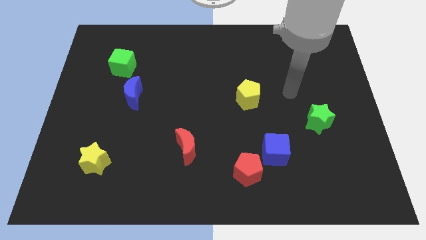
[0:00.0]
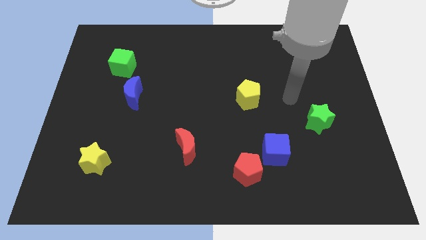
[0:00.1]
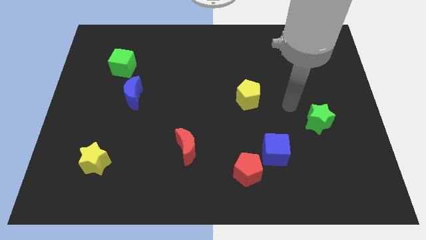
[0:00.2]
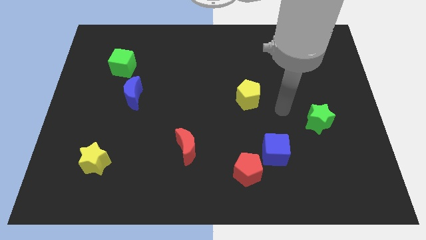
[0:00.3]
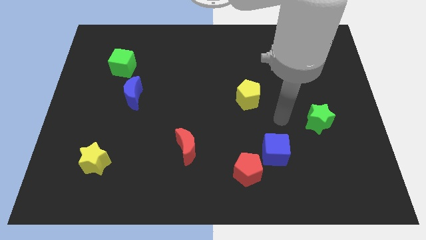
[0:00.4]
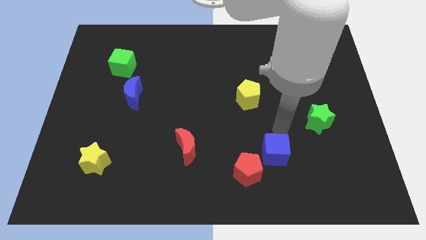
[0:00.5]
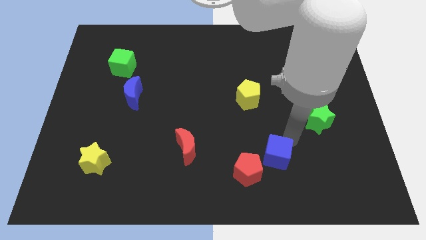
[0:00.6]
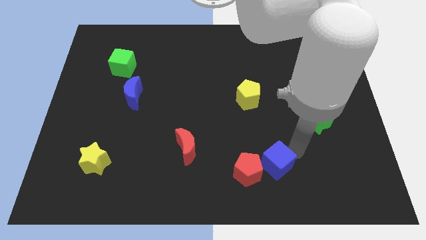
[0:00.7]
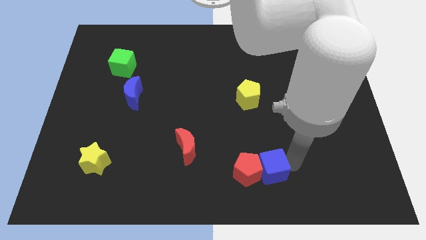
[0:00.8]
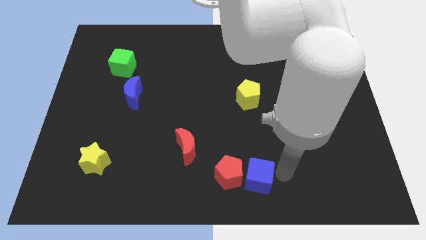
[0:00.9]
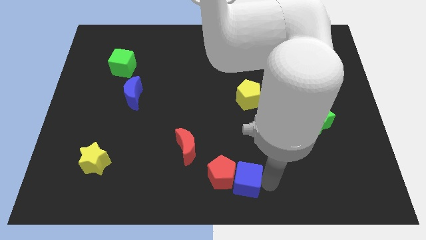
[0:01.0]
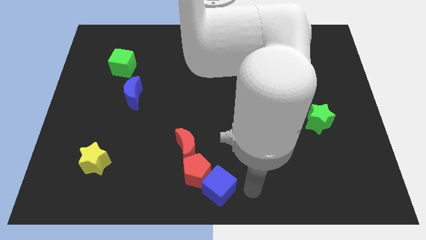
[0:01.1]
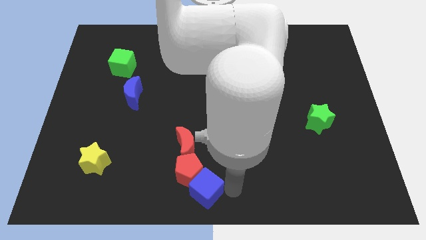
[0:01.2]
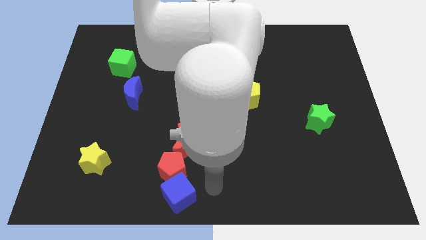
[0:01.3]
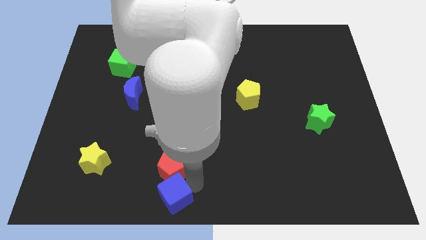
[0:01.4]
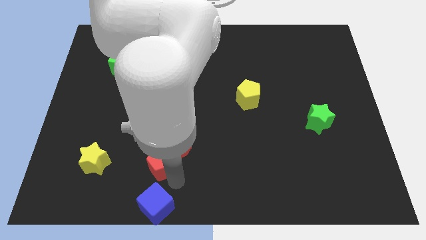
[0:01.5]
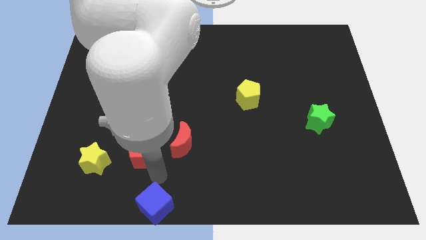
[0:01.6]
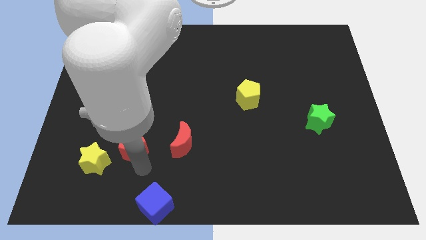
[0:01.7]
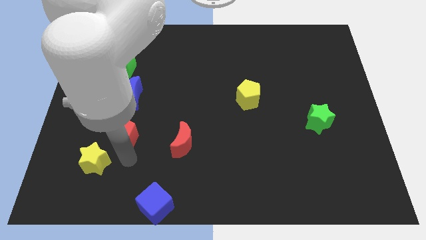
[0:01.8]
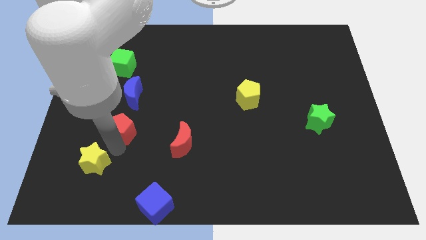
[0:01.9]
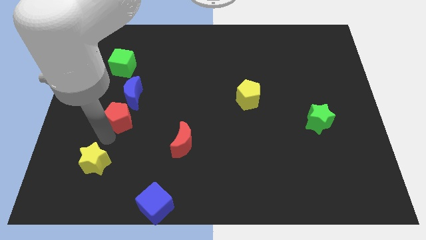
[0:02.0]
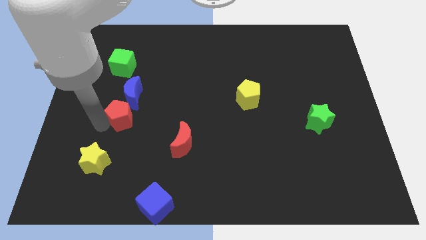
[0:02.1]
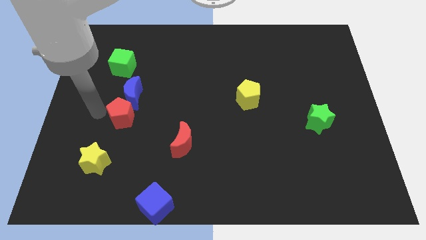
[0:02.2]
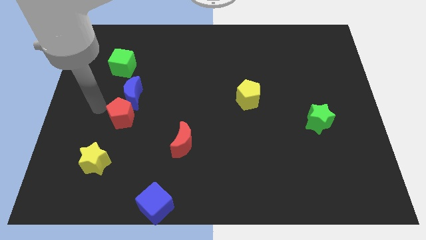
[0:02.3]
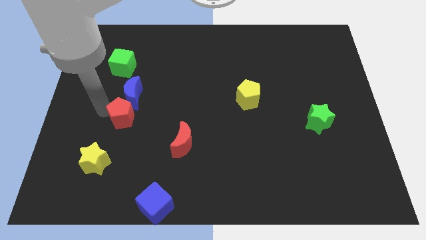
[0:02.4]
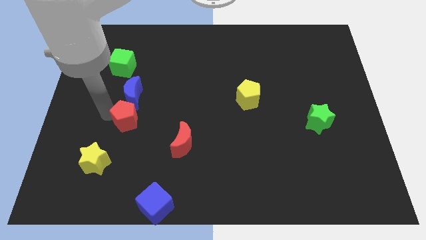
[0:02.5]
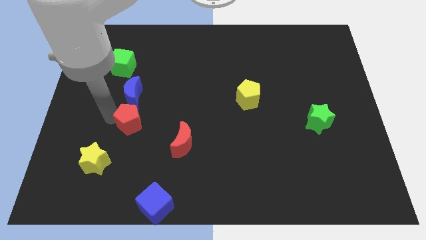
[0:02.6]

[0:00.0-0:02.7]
move the red pentagon slightly upwards and to the left diagonally

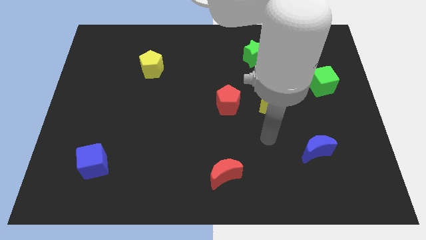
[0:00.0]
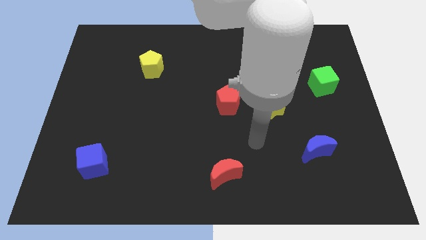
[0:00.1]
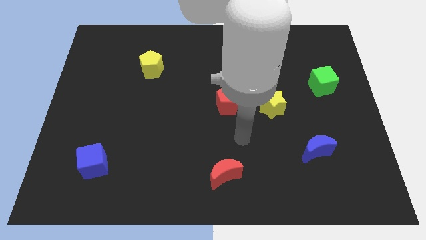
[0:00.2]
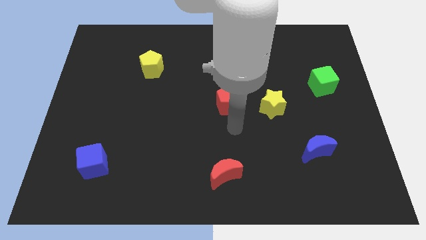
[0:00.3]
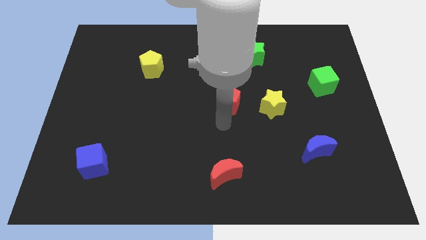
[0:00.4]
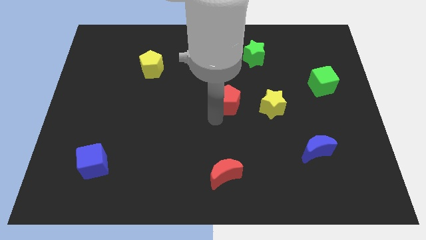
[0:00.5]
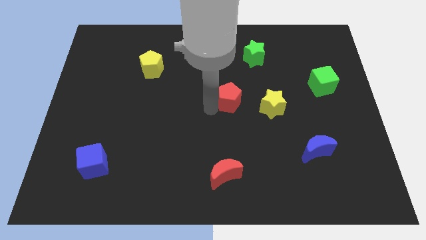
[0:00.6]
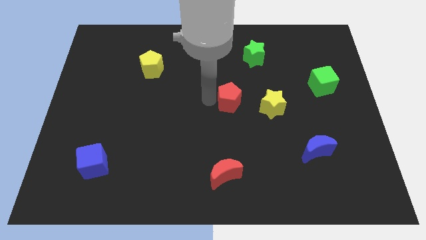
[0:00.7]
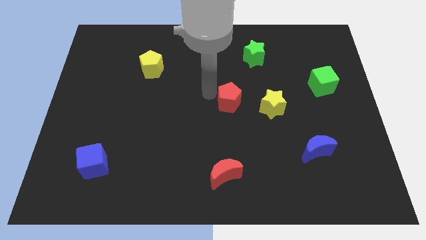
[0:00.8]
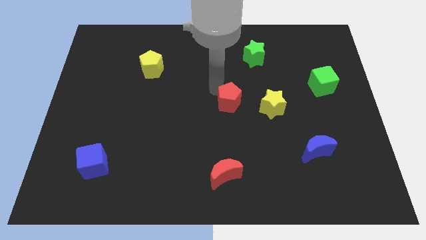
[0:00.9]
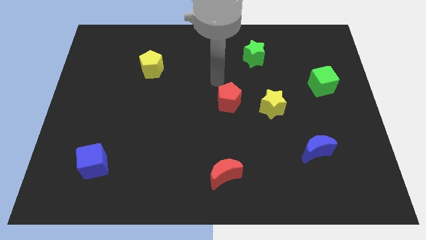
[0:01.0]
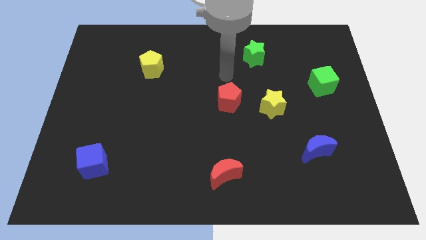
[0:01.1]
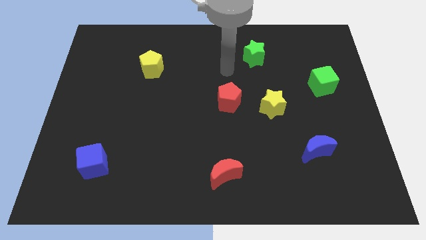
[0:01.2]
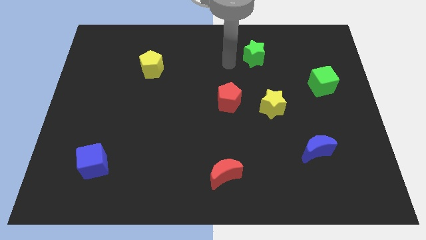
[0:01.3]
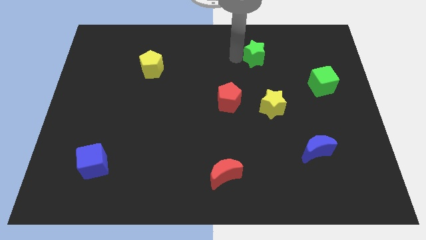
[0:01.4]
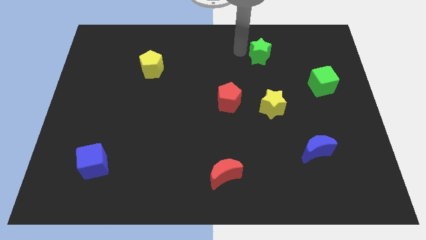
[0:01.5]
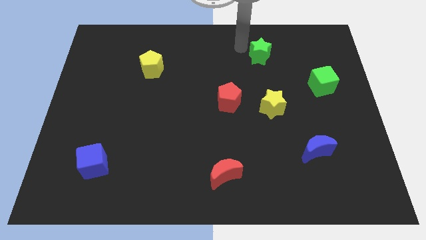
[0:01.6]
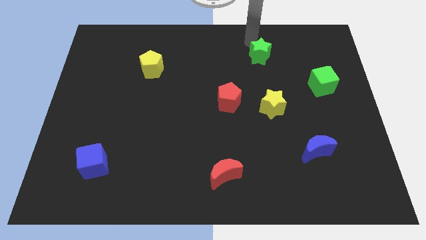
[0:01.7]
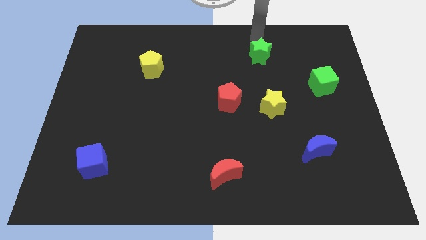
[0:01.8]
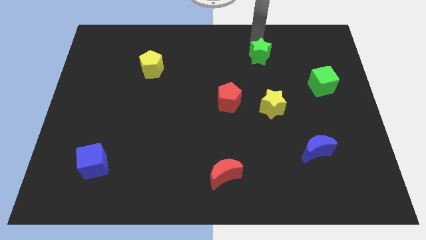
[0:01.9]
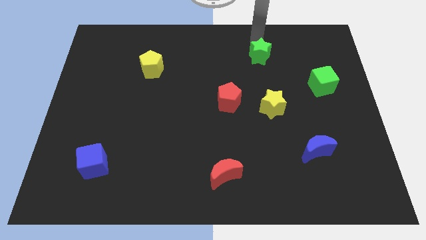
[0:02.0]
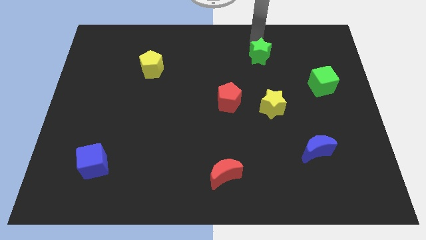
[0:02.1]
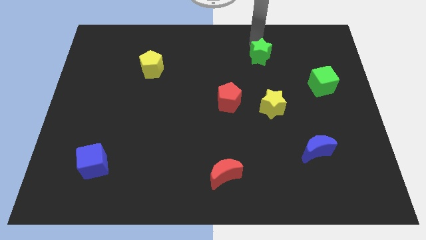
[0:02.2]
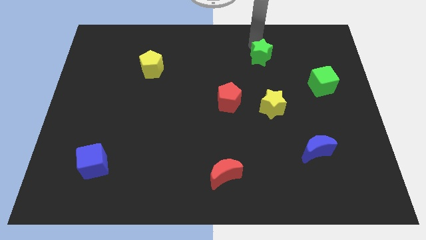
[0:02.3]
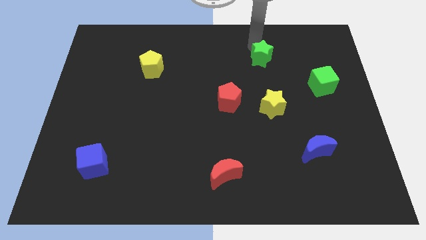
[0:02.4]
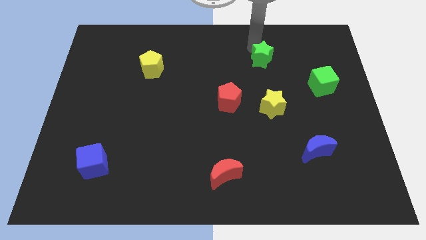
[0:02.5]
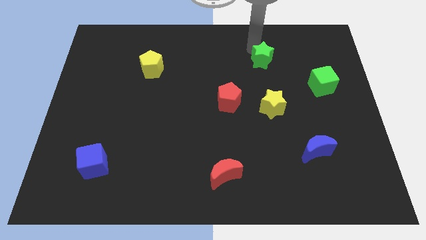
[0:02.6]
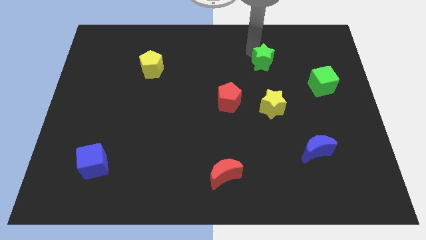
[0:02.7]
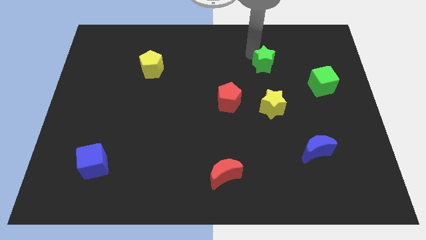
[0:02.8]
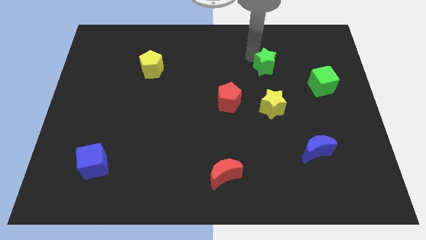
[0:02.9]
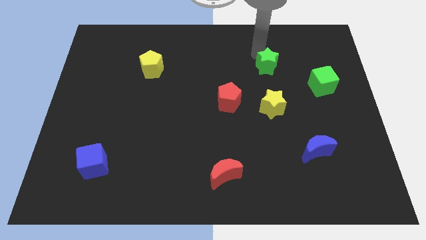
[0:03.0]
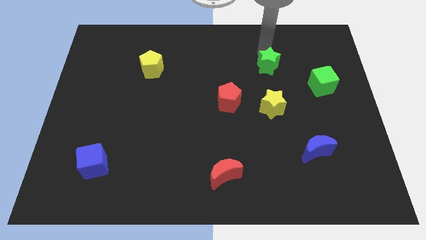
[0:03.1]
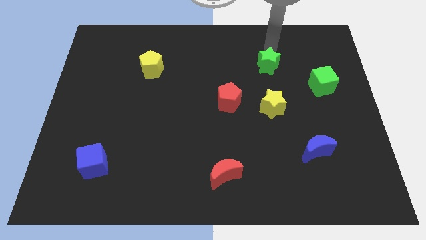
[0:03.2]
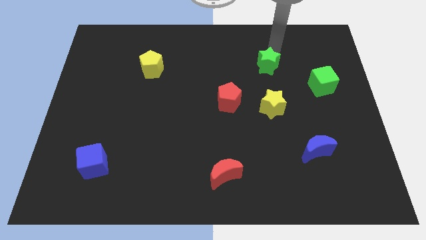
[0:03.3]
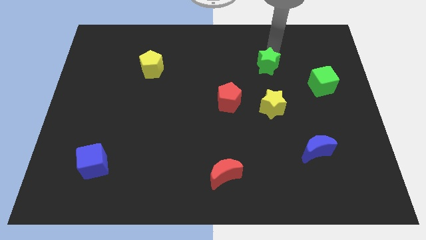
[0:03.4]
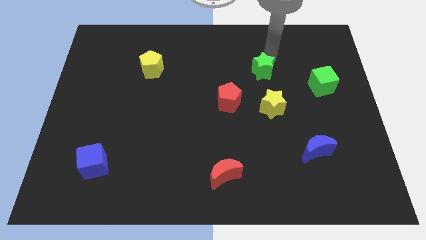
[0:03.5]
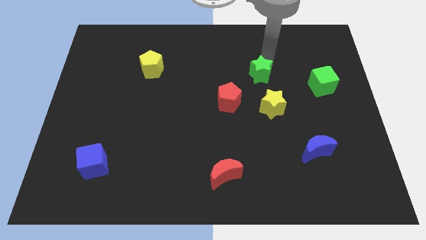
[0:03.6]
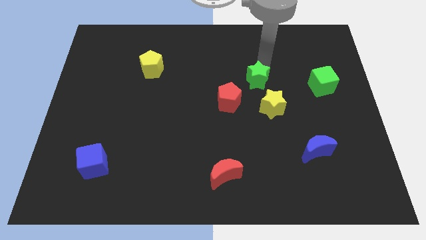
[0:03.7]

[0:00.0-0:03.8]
move the green star downwards a bit

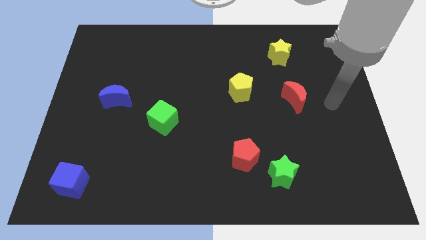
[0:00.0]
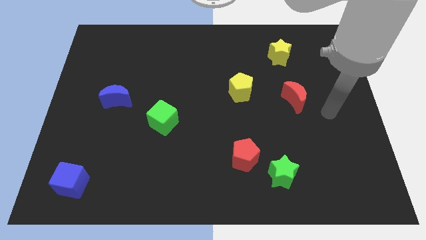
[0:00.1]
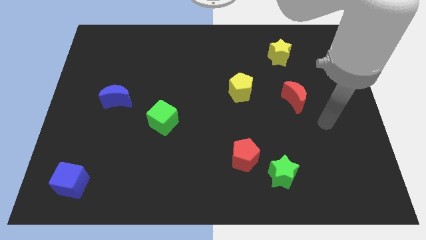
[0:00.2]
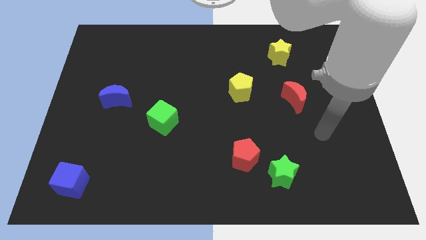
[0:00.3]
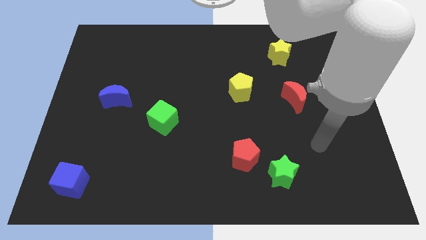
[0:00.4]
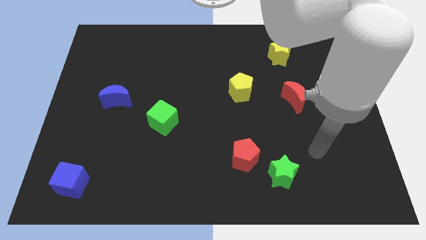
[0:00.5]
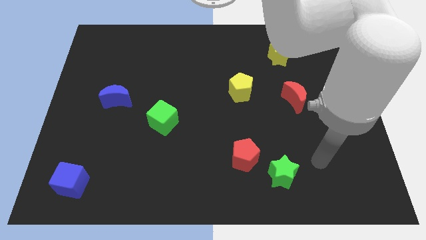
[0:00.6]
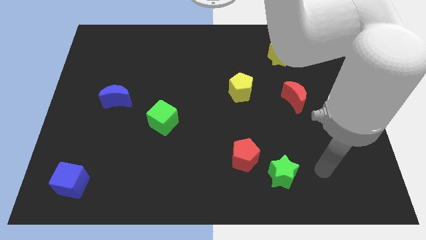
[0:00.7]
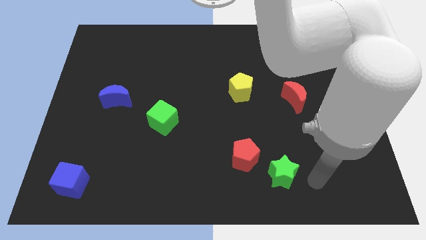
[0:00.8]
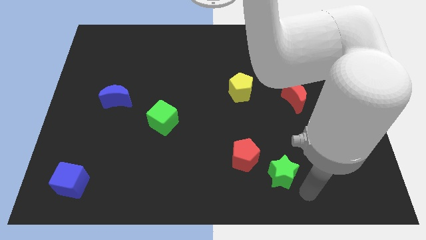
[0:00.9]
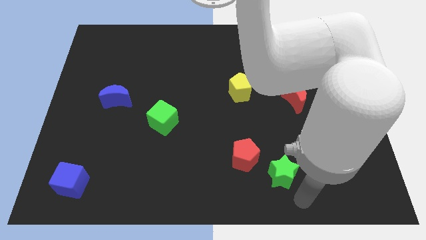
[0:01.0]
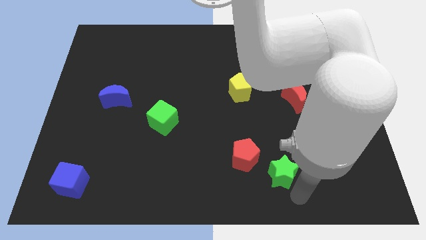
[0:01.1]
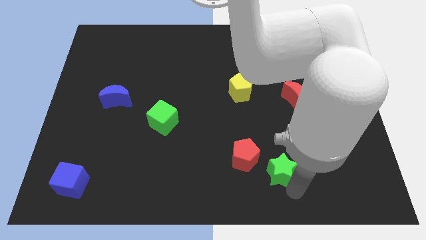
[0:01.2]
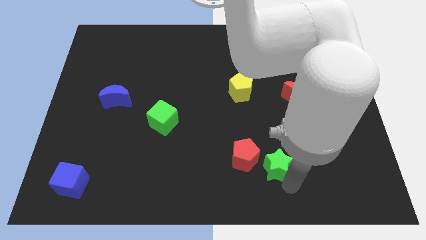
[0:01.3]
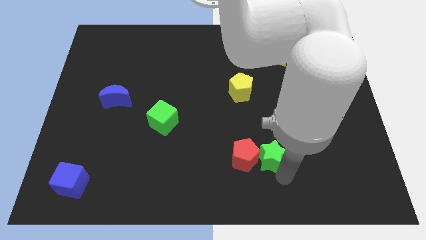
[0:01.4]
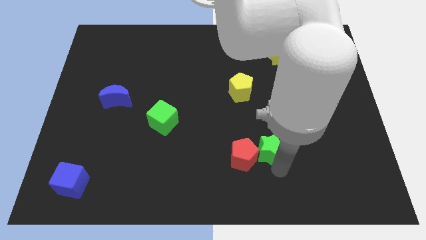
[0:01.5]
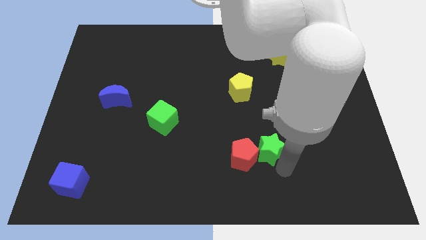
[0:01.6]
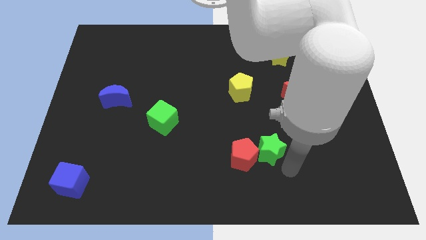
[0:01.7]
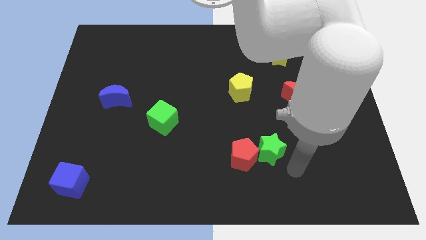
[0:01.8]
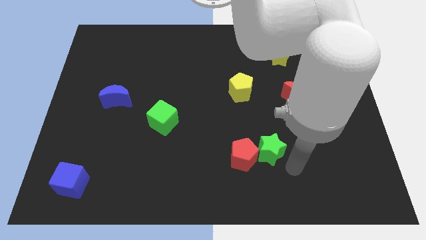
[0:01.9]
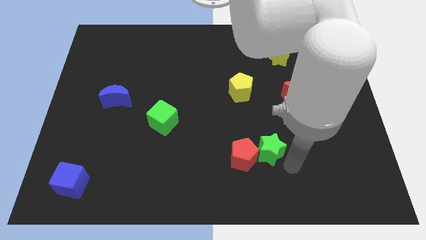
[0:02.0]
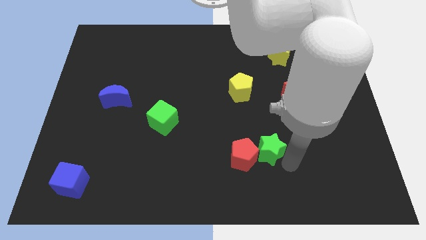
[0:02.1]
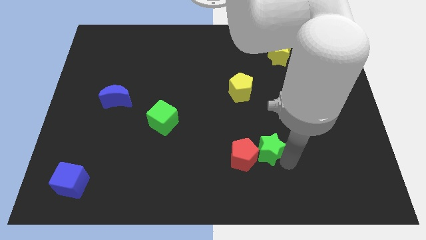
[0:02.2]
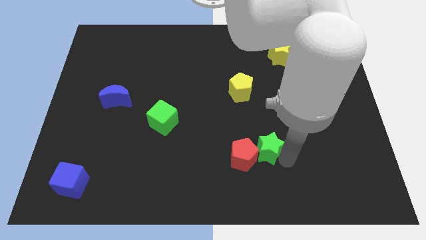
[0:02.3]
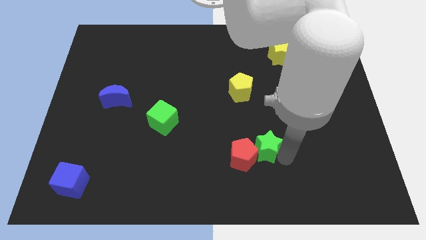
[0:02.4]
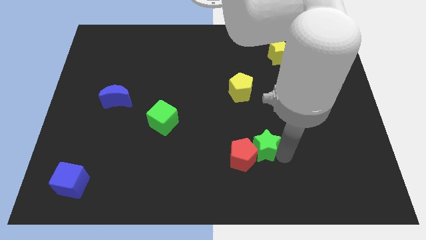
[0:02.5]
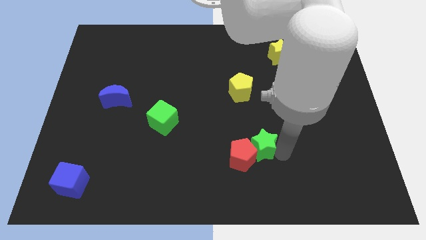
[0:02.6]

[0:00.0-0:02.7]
slightly slide the green star up and left
